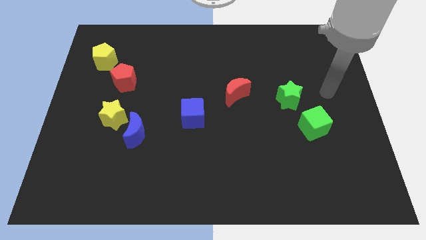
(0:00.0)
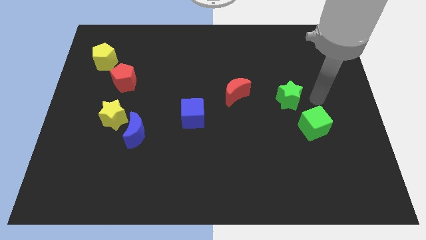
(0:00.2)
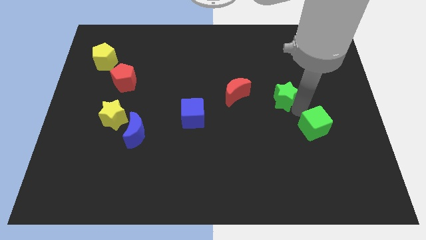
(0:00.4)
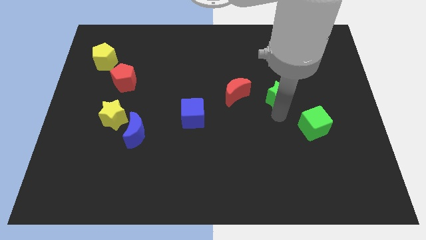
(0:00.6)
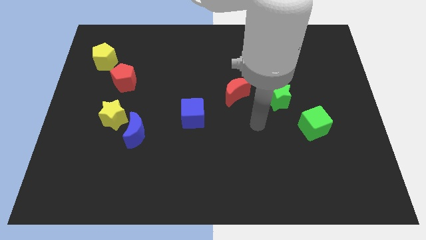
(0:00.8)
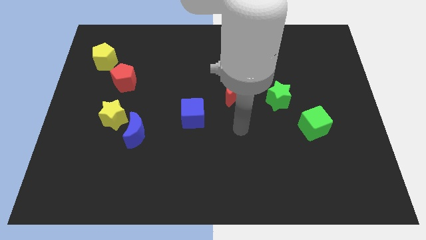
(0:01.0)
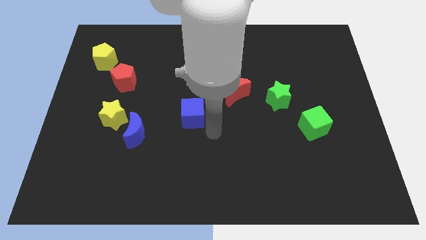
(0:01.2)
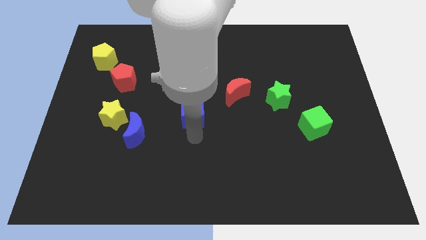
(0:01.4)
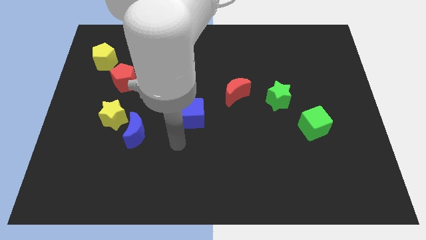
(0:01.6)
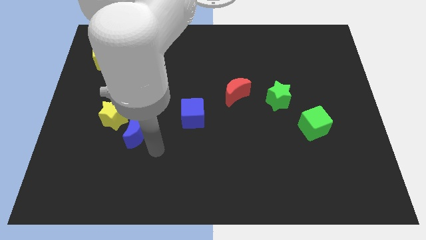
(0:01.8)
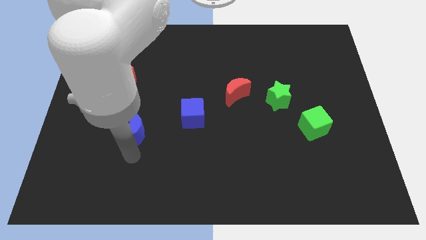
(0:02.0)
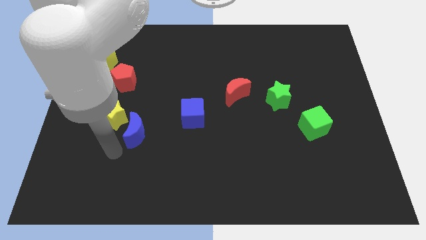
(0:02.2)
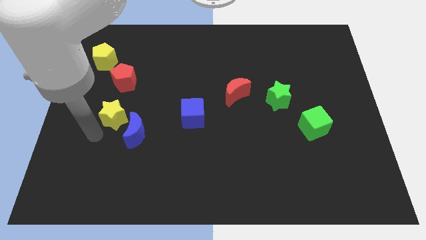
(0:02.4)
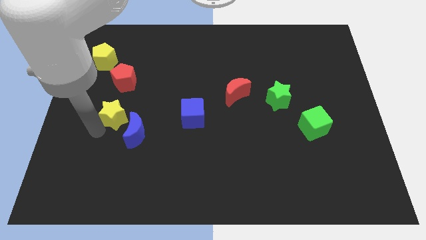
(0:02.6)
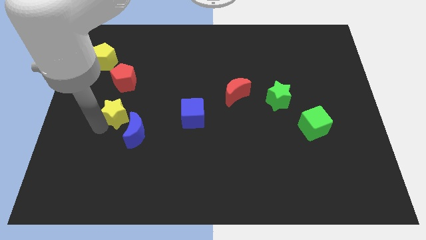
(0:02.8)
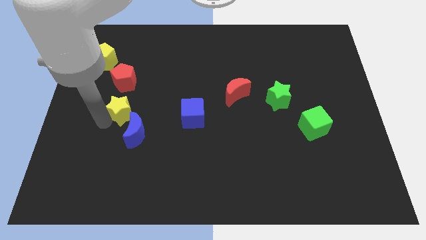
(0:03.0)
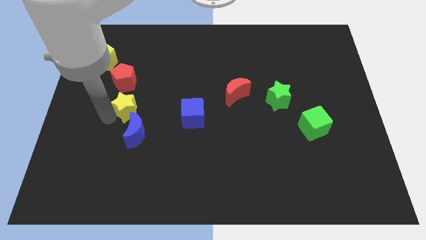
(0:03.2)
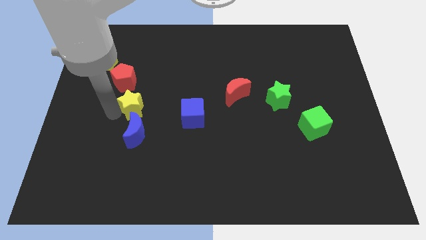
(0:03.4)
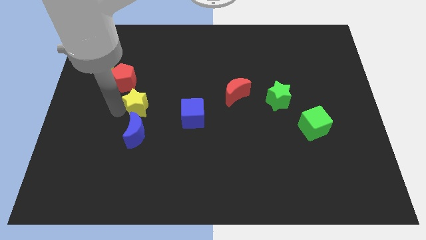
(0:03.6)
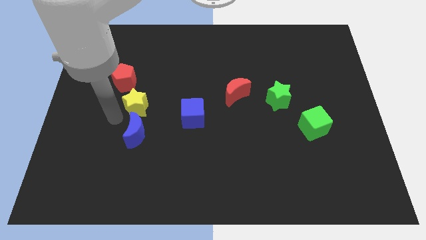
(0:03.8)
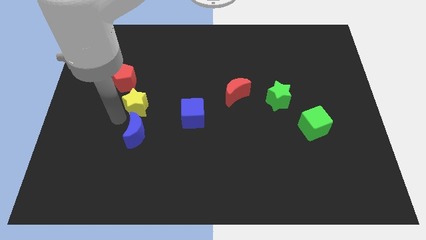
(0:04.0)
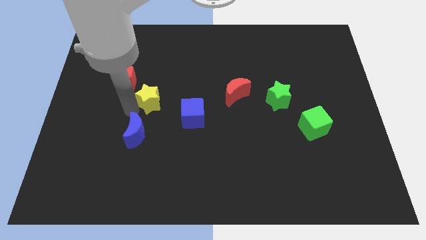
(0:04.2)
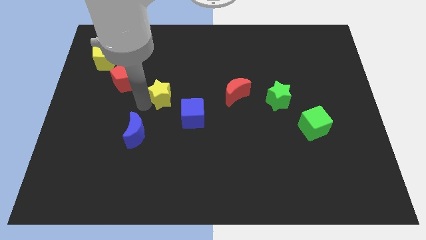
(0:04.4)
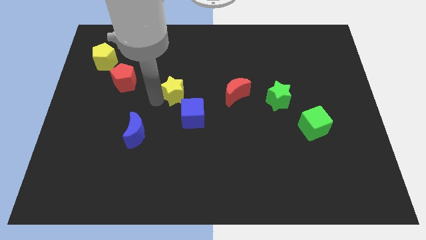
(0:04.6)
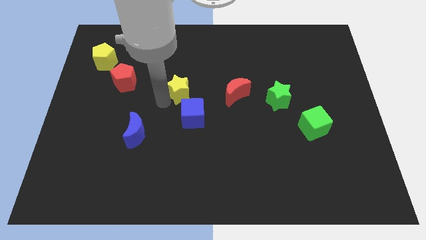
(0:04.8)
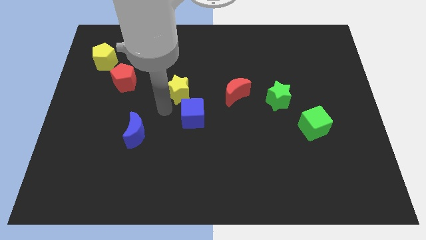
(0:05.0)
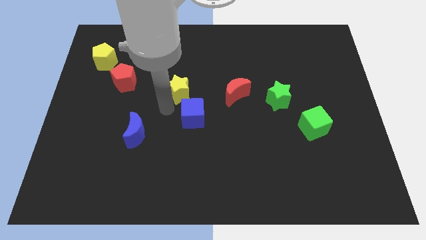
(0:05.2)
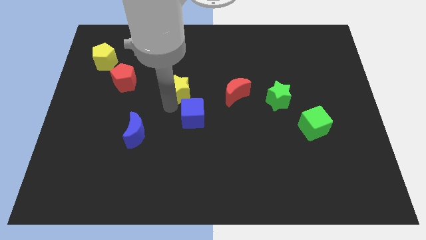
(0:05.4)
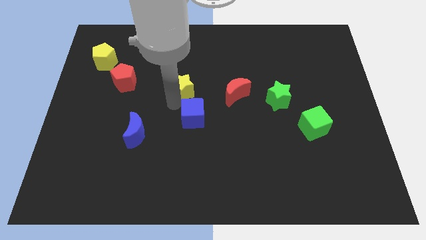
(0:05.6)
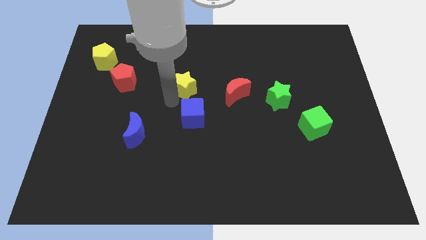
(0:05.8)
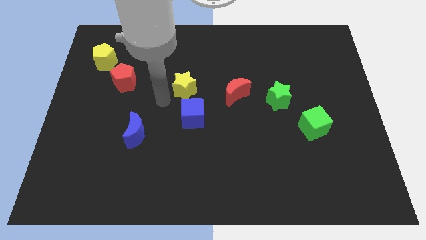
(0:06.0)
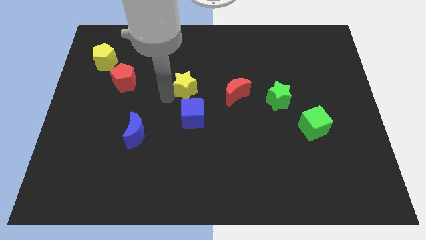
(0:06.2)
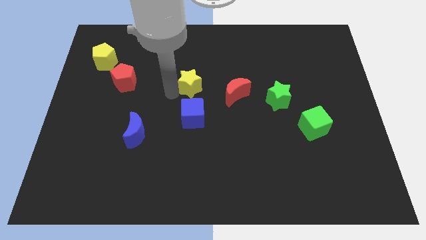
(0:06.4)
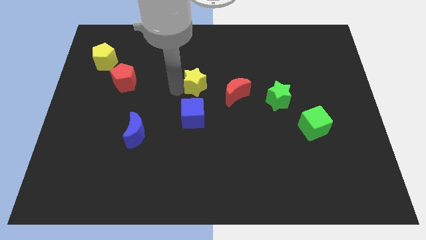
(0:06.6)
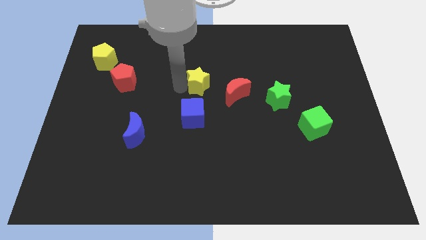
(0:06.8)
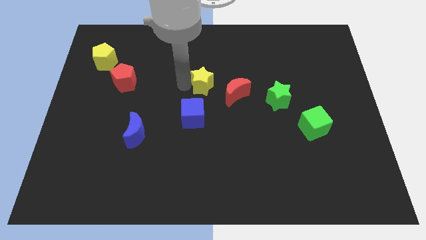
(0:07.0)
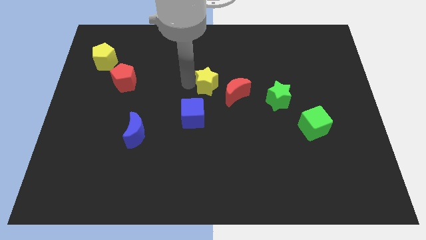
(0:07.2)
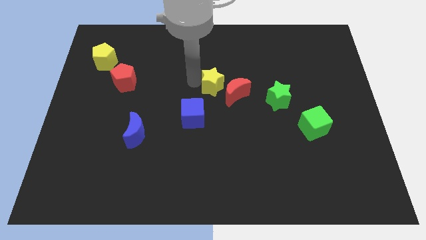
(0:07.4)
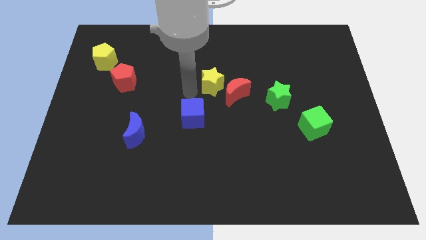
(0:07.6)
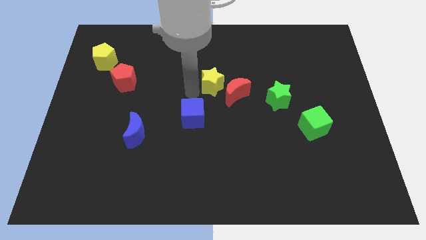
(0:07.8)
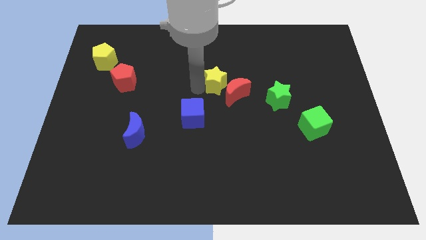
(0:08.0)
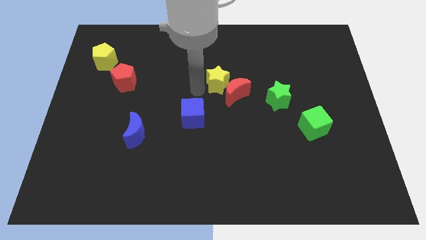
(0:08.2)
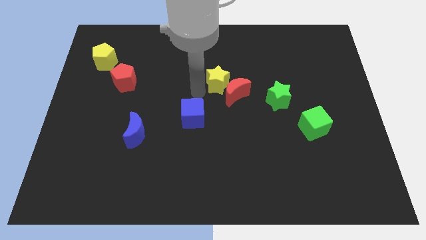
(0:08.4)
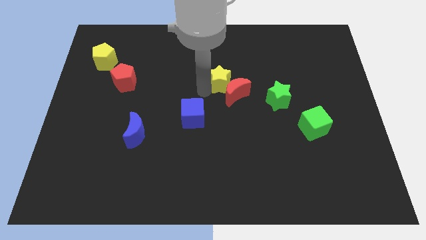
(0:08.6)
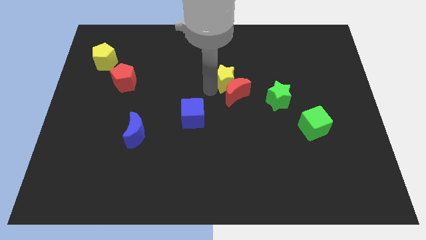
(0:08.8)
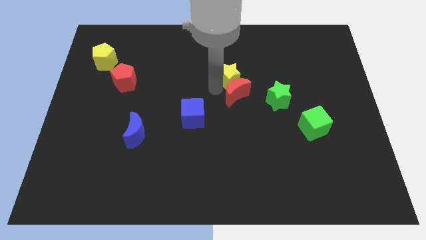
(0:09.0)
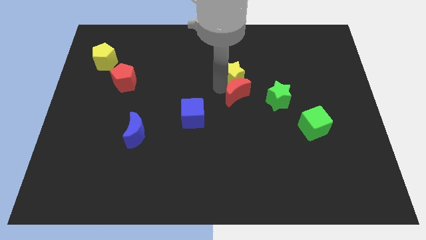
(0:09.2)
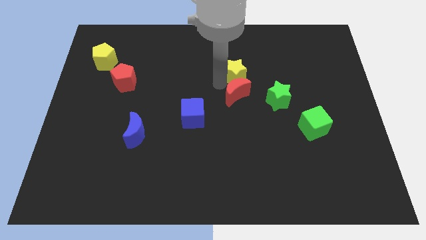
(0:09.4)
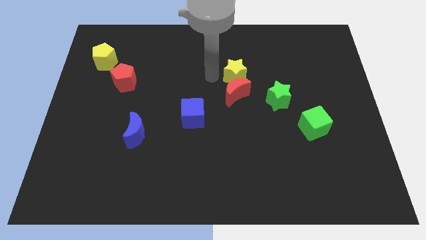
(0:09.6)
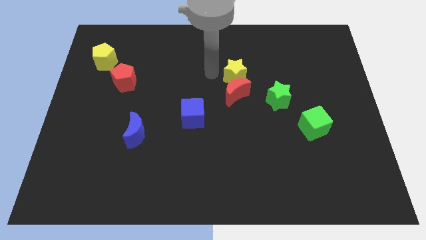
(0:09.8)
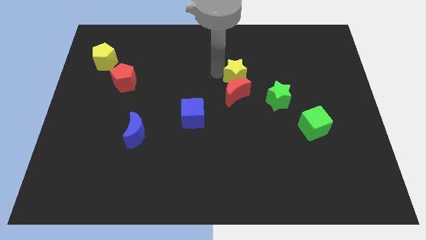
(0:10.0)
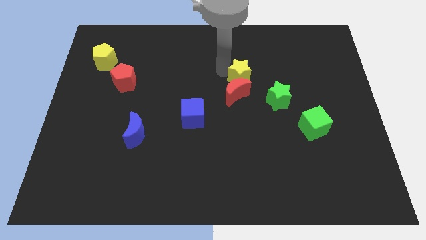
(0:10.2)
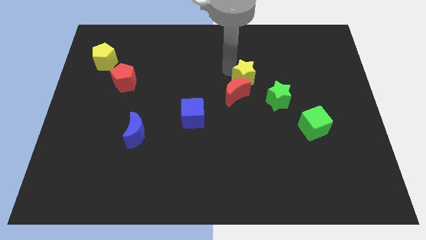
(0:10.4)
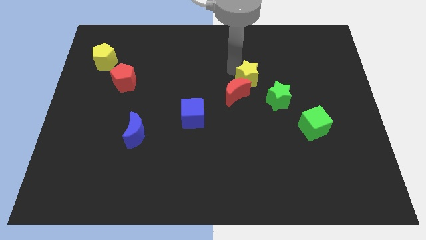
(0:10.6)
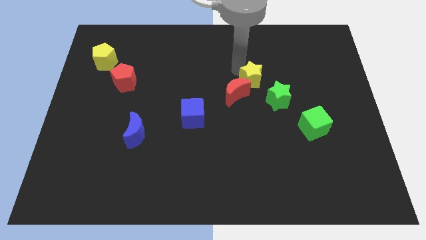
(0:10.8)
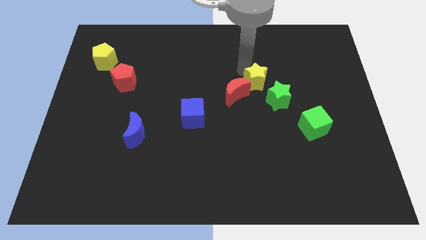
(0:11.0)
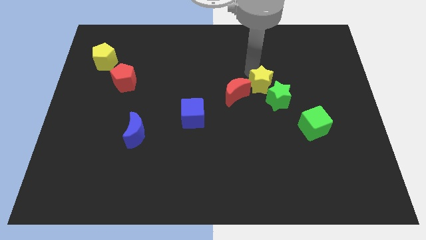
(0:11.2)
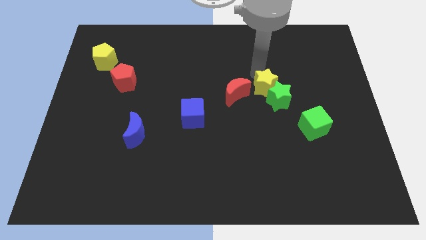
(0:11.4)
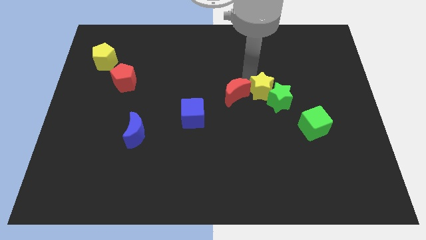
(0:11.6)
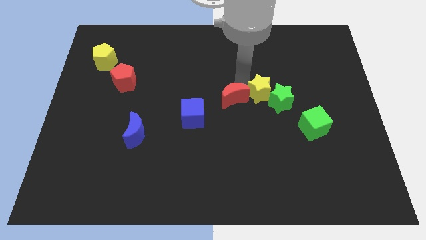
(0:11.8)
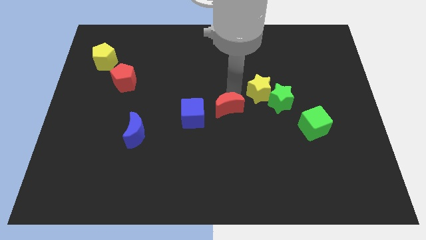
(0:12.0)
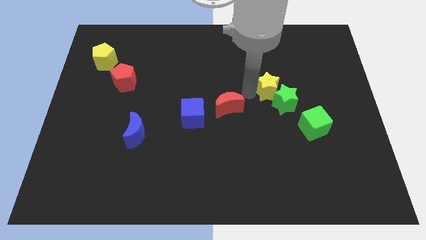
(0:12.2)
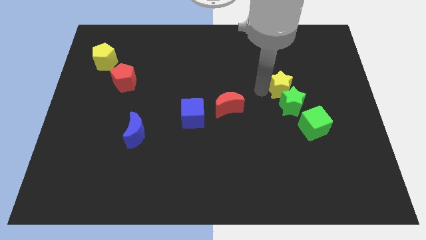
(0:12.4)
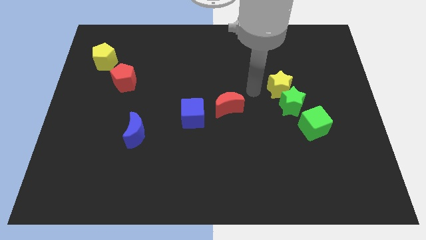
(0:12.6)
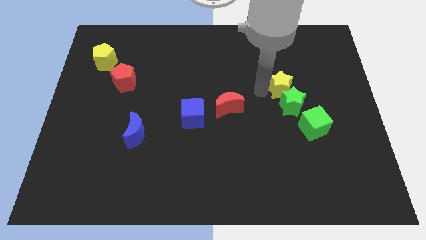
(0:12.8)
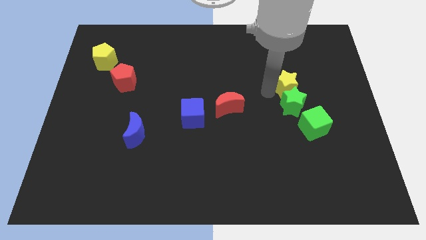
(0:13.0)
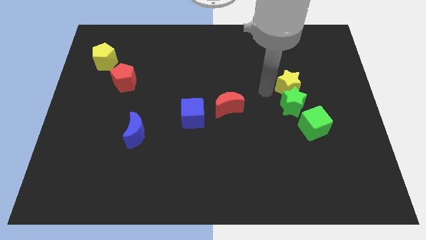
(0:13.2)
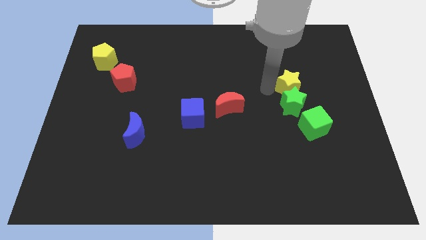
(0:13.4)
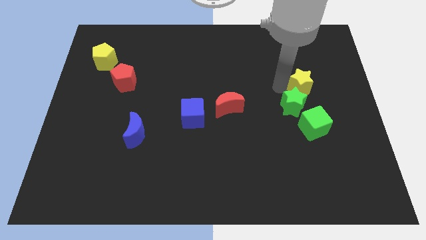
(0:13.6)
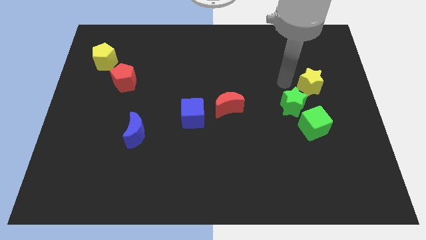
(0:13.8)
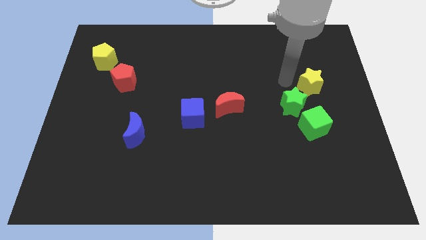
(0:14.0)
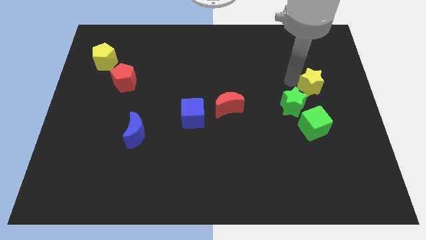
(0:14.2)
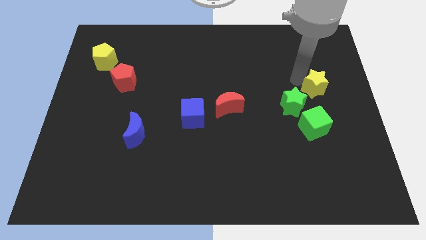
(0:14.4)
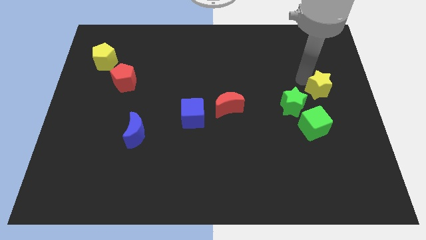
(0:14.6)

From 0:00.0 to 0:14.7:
put the yellow star to the center right
